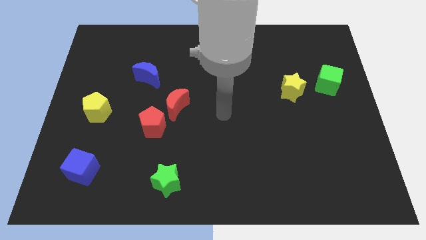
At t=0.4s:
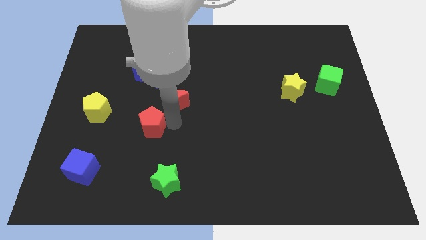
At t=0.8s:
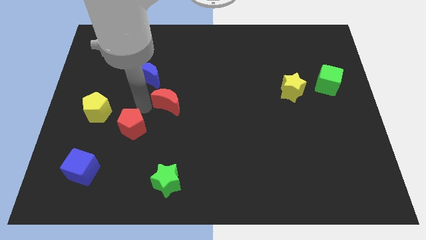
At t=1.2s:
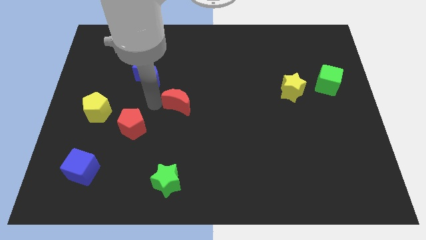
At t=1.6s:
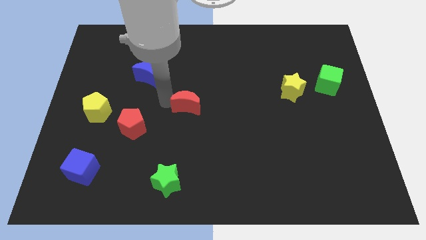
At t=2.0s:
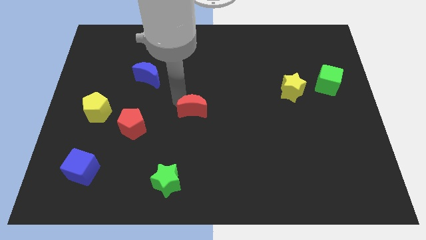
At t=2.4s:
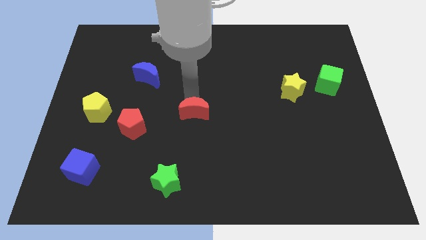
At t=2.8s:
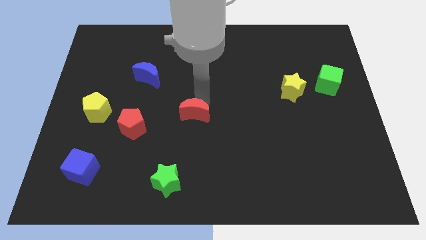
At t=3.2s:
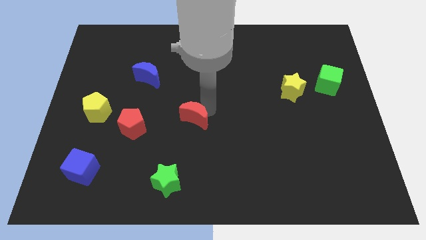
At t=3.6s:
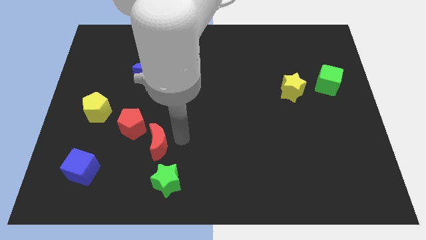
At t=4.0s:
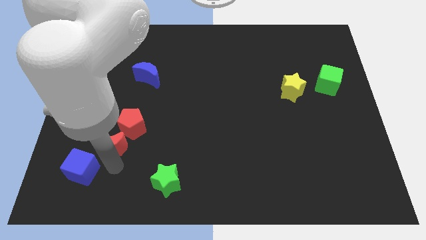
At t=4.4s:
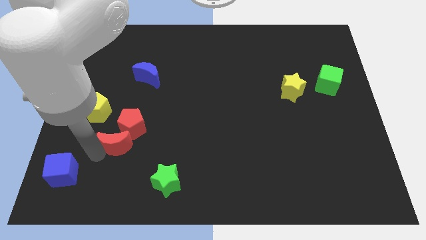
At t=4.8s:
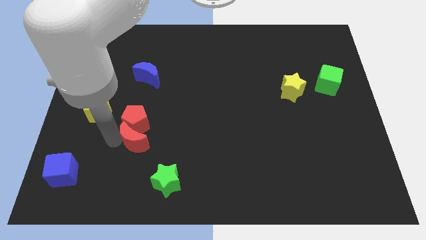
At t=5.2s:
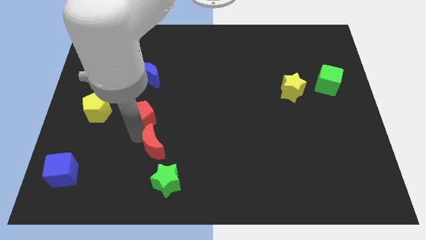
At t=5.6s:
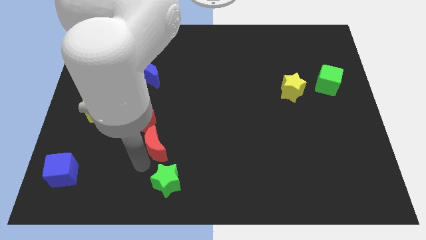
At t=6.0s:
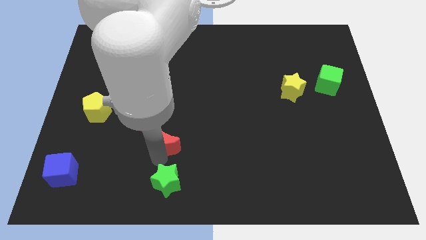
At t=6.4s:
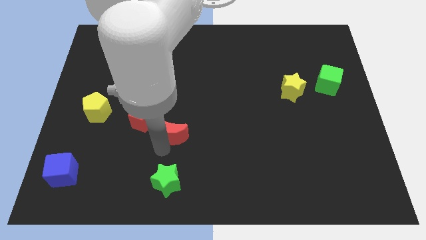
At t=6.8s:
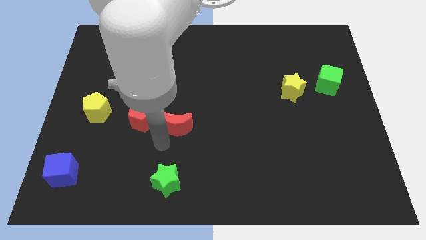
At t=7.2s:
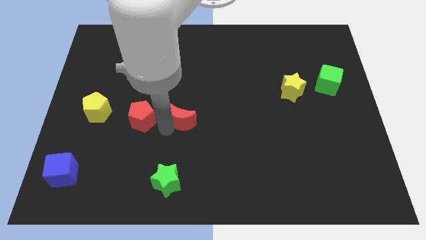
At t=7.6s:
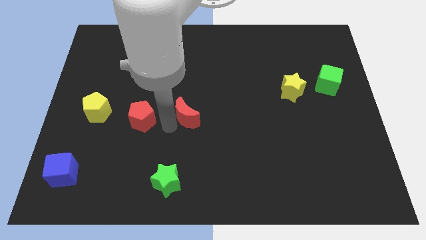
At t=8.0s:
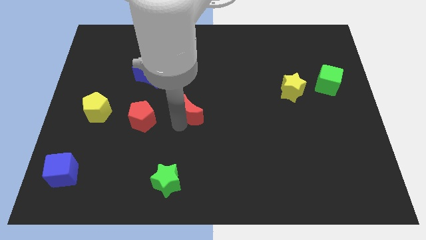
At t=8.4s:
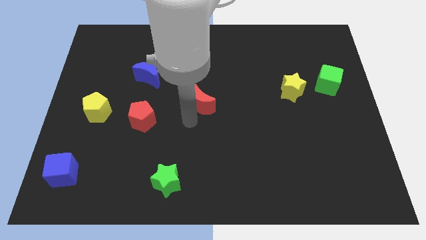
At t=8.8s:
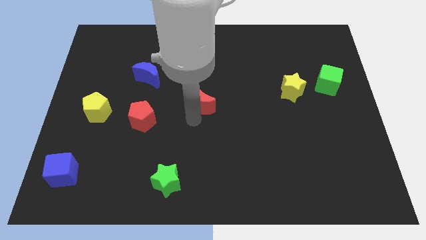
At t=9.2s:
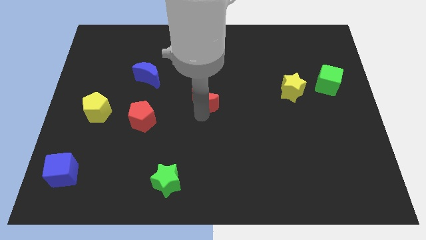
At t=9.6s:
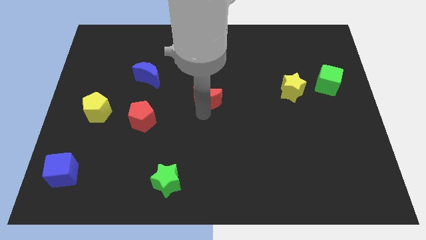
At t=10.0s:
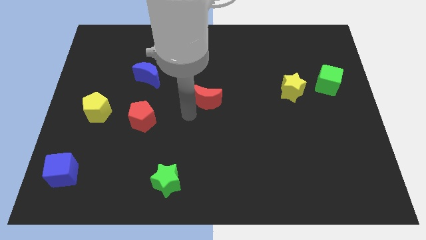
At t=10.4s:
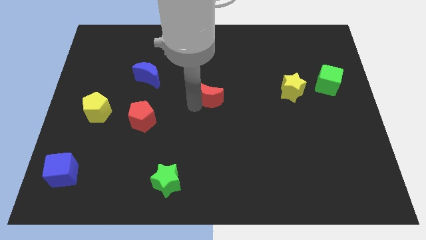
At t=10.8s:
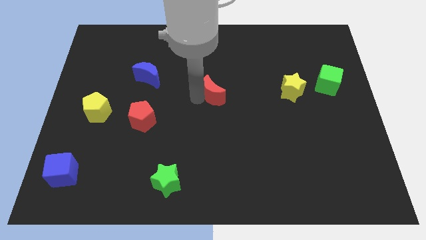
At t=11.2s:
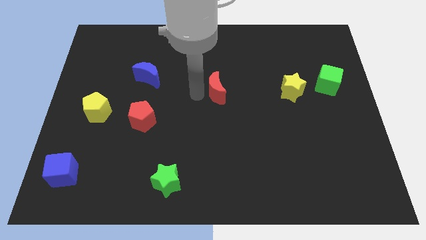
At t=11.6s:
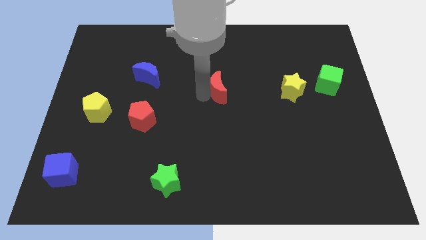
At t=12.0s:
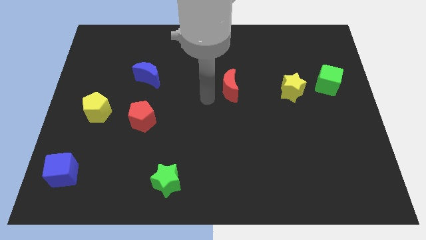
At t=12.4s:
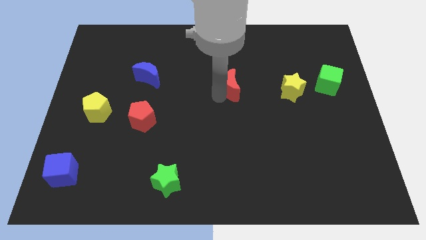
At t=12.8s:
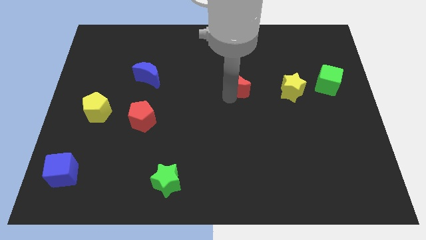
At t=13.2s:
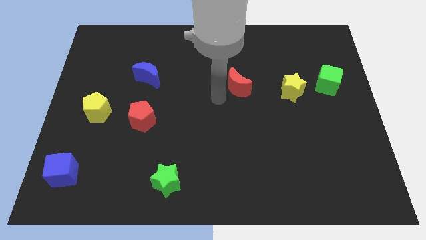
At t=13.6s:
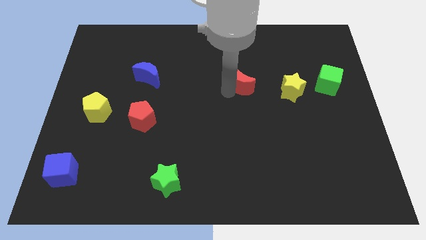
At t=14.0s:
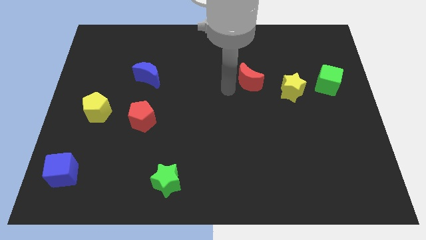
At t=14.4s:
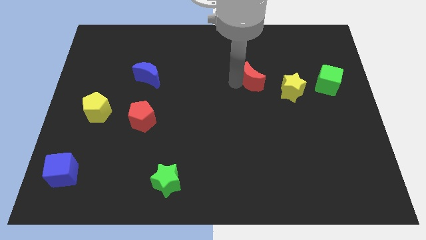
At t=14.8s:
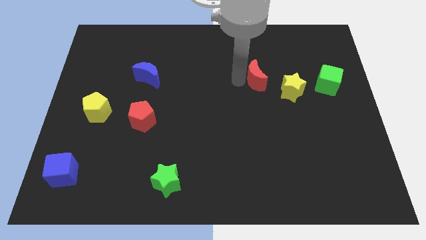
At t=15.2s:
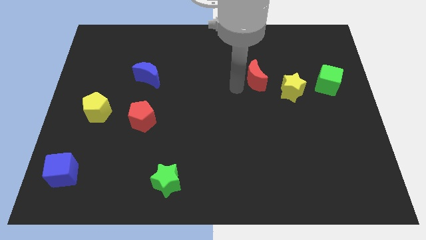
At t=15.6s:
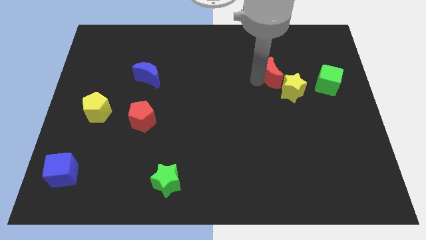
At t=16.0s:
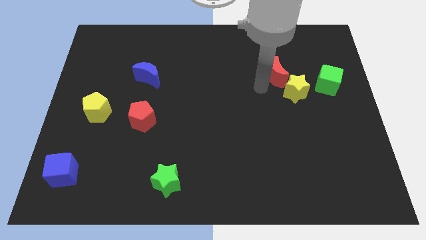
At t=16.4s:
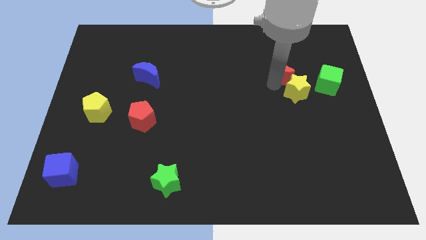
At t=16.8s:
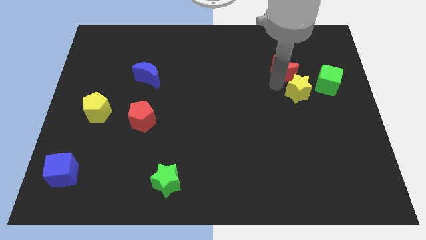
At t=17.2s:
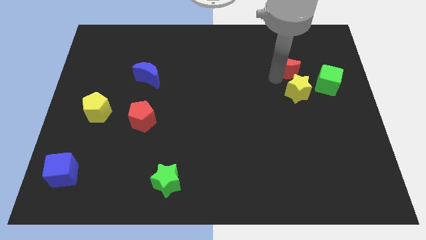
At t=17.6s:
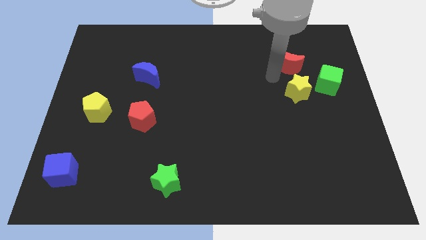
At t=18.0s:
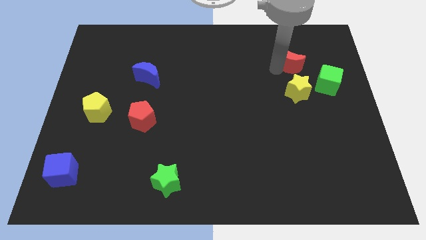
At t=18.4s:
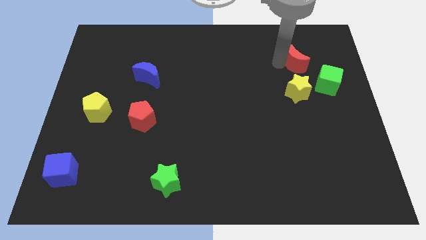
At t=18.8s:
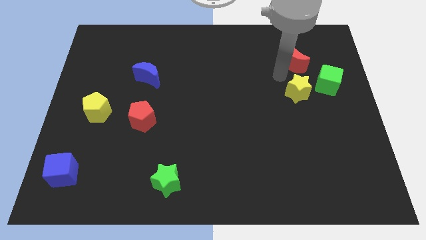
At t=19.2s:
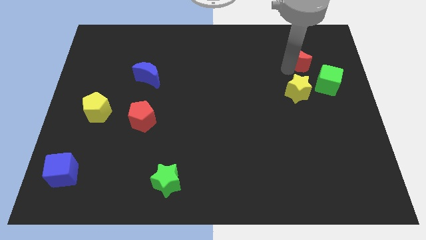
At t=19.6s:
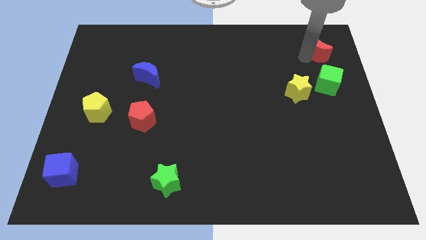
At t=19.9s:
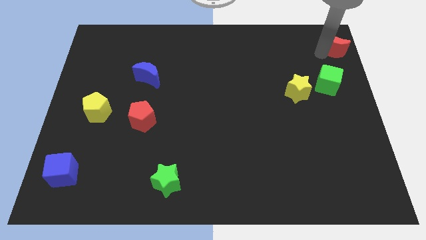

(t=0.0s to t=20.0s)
put the red moon to the top right of the board
